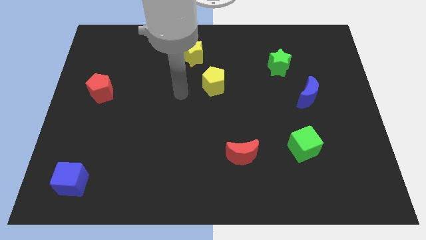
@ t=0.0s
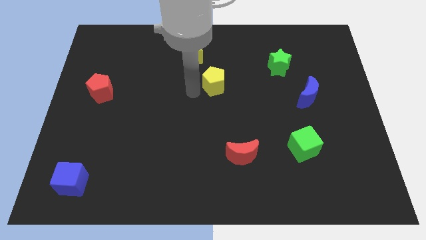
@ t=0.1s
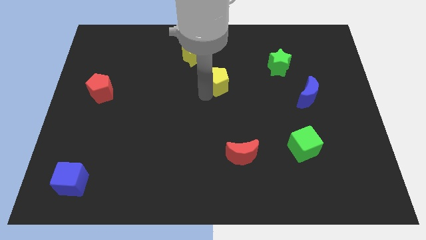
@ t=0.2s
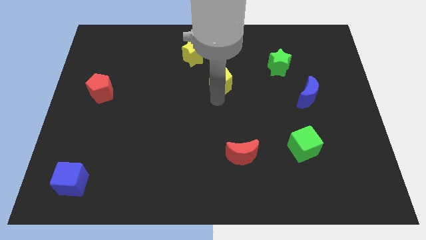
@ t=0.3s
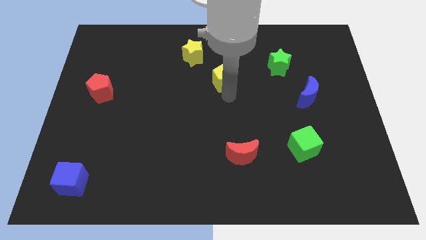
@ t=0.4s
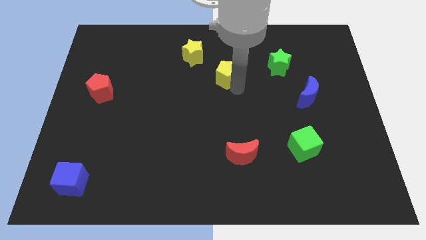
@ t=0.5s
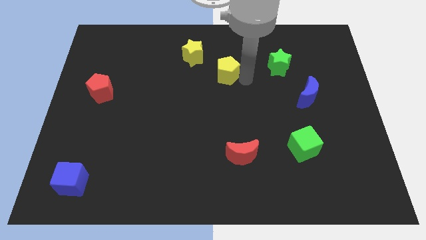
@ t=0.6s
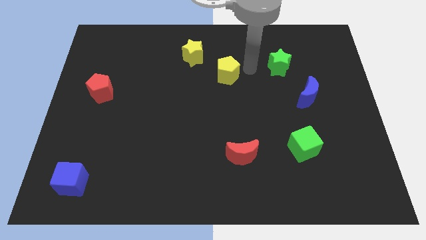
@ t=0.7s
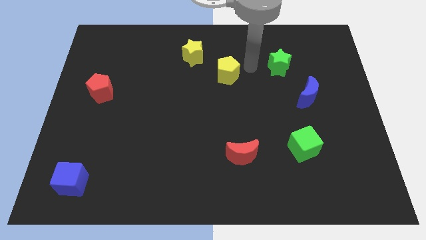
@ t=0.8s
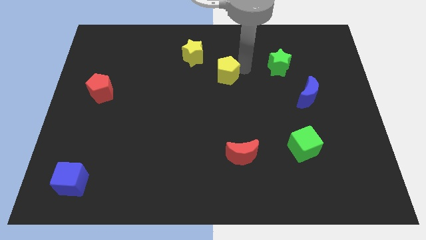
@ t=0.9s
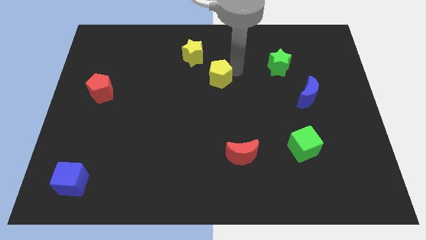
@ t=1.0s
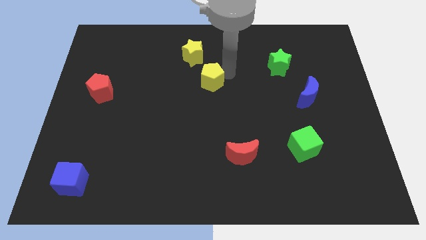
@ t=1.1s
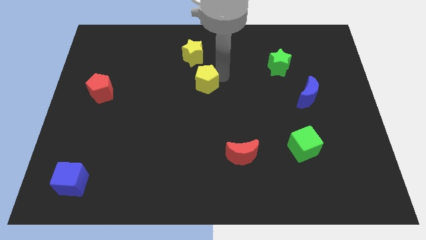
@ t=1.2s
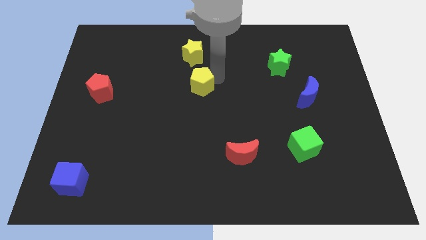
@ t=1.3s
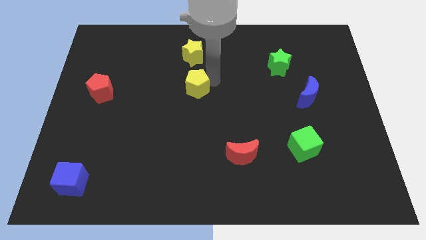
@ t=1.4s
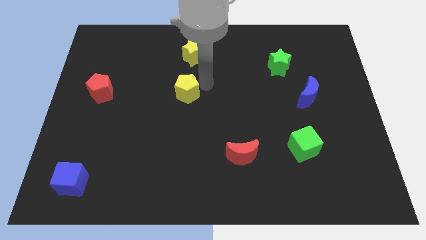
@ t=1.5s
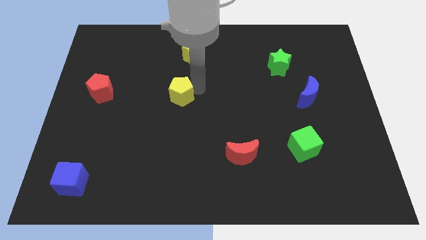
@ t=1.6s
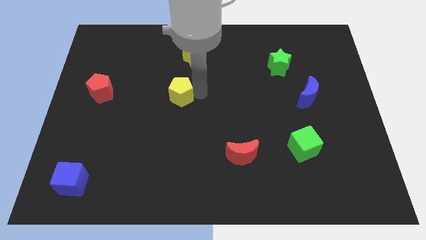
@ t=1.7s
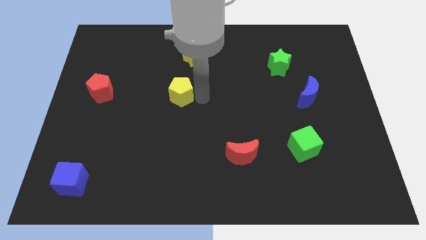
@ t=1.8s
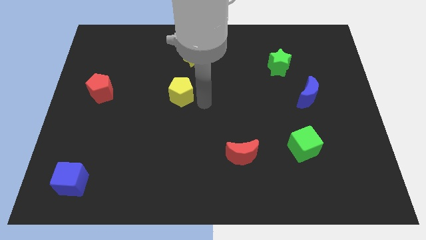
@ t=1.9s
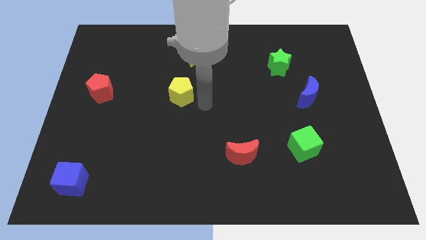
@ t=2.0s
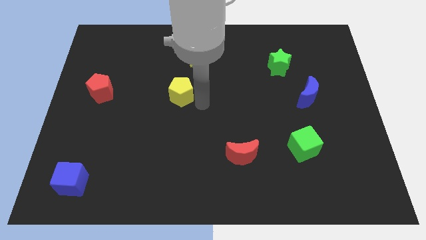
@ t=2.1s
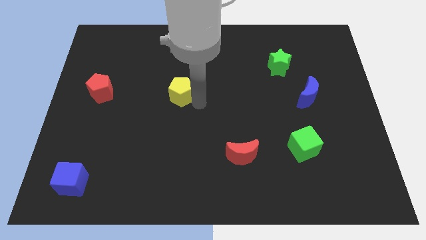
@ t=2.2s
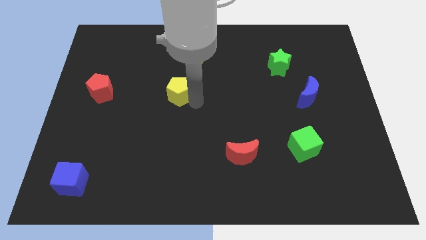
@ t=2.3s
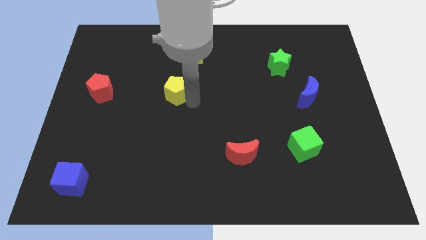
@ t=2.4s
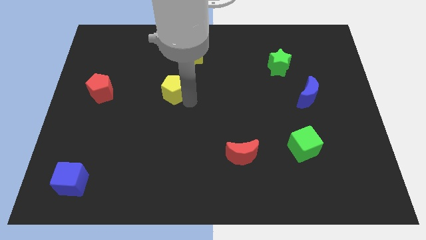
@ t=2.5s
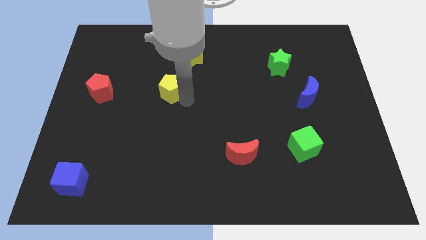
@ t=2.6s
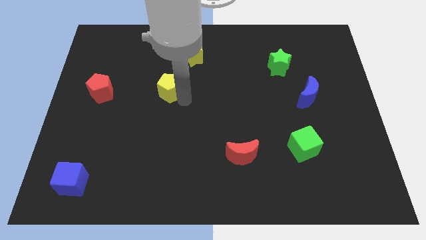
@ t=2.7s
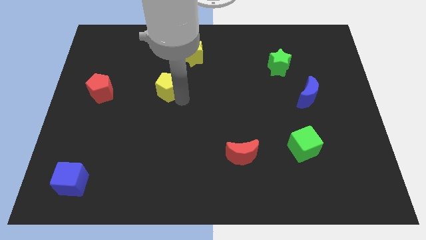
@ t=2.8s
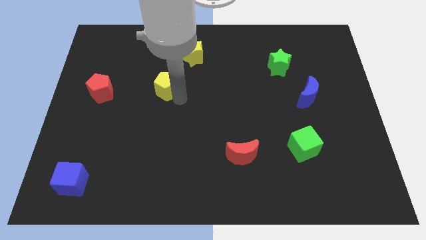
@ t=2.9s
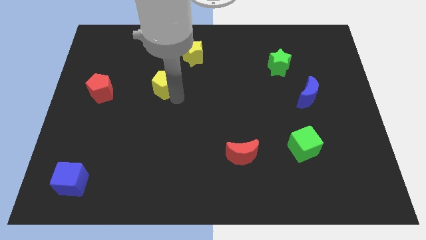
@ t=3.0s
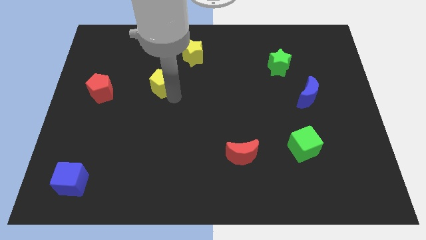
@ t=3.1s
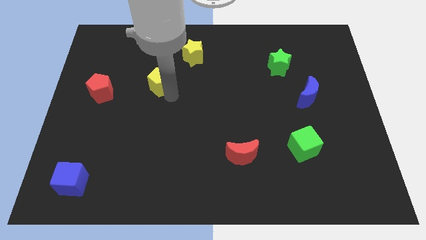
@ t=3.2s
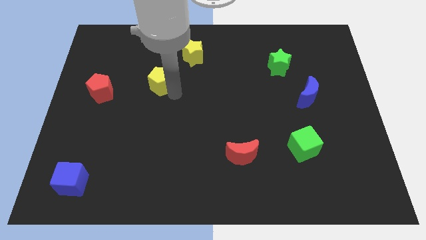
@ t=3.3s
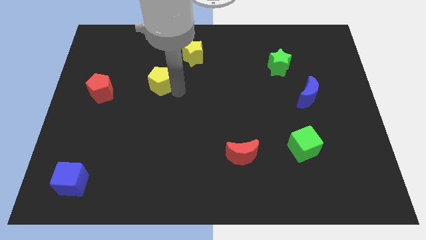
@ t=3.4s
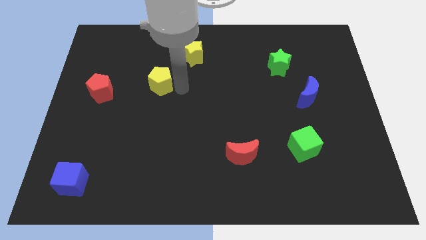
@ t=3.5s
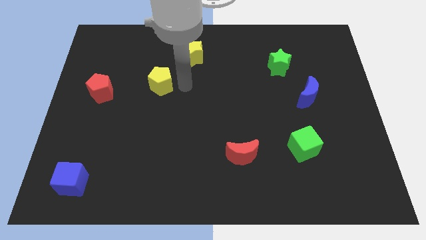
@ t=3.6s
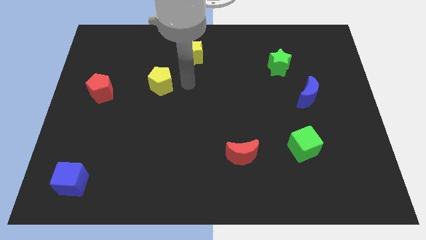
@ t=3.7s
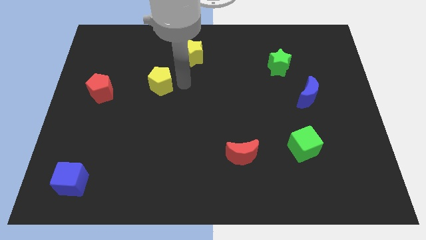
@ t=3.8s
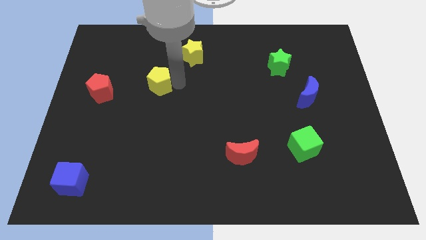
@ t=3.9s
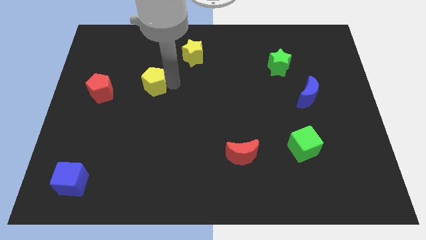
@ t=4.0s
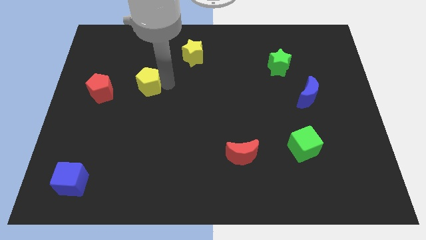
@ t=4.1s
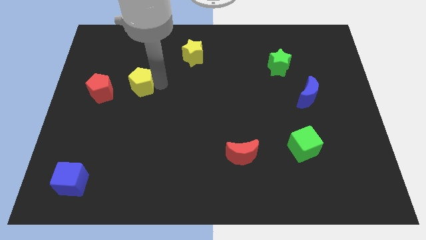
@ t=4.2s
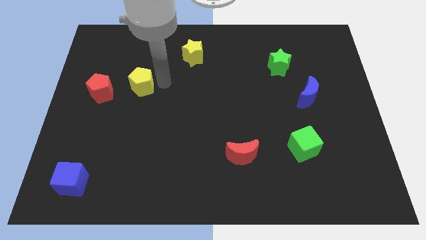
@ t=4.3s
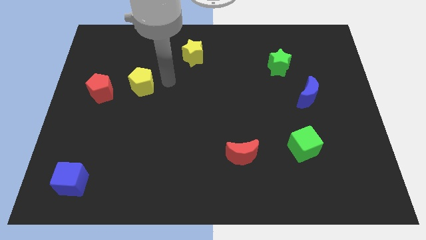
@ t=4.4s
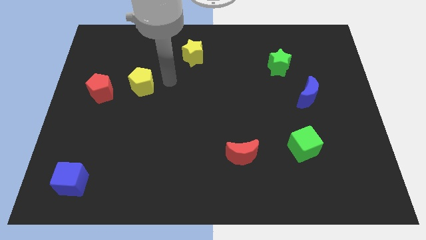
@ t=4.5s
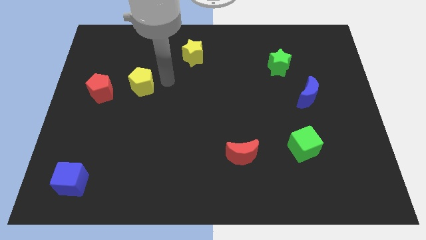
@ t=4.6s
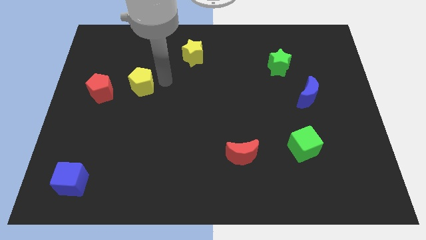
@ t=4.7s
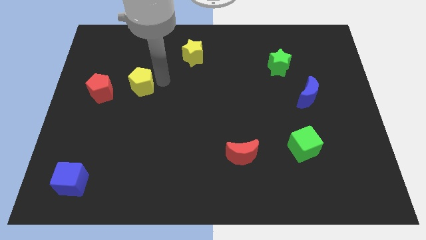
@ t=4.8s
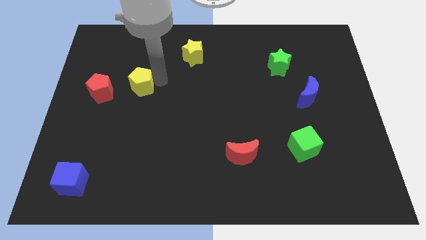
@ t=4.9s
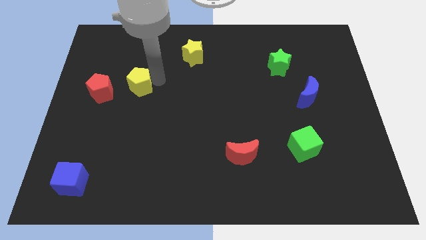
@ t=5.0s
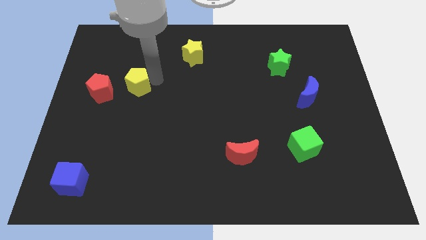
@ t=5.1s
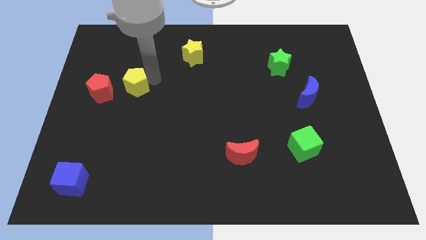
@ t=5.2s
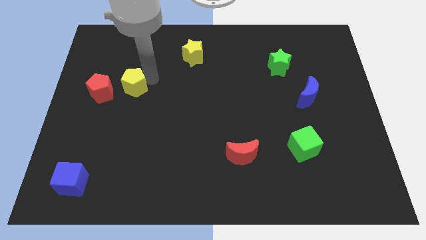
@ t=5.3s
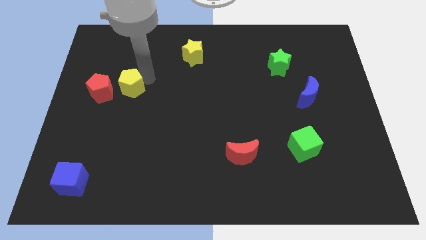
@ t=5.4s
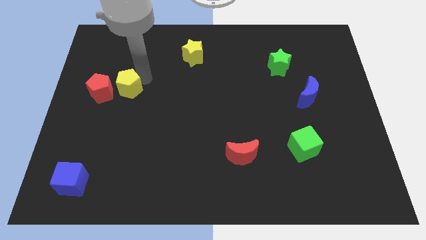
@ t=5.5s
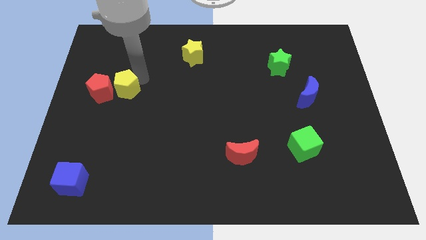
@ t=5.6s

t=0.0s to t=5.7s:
slide the yellow pentagon next to the red pentagon

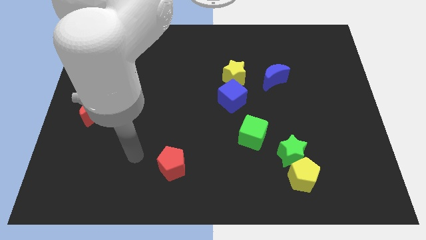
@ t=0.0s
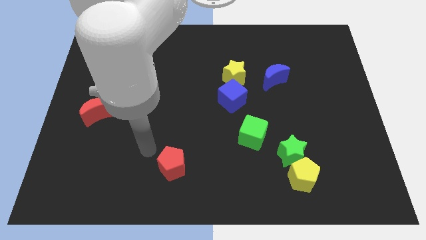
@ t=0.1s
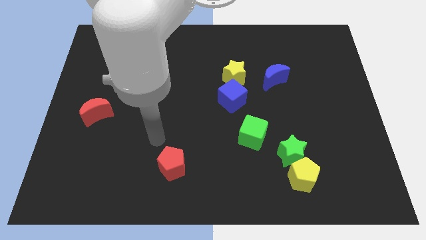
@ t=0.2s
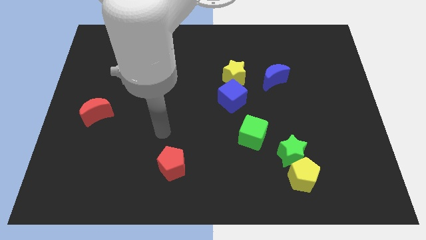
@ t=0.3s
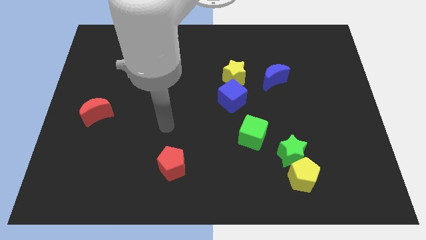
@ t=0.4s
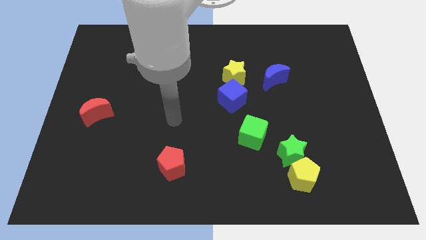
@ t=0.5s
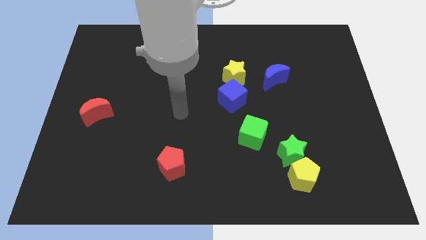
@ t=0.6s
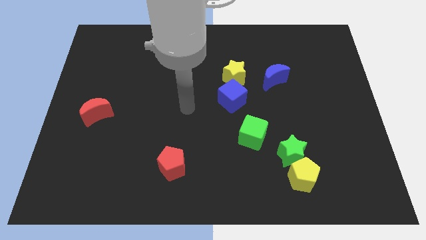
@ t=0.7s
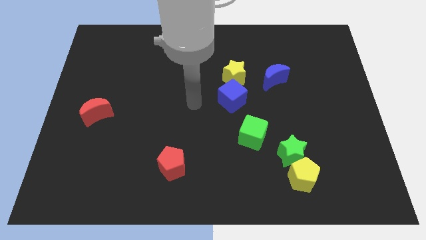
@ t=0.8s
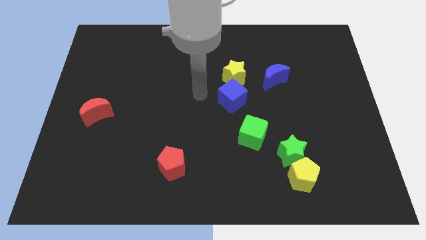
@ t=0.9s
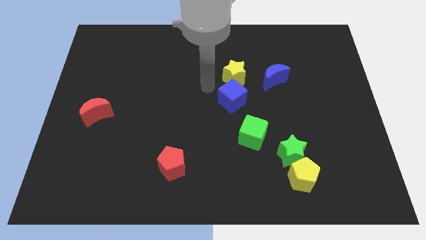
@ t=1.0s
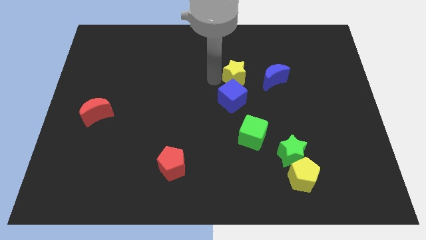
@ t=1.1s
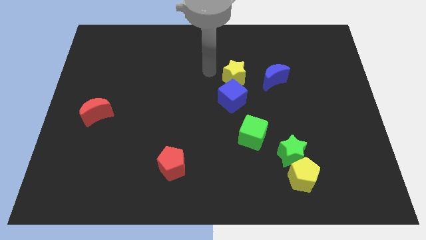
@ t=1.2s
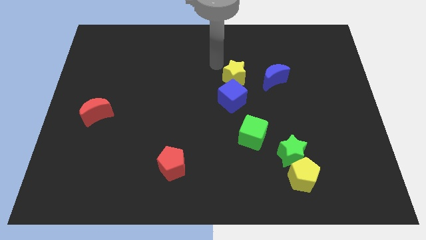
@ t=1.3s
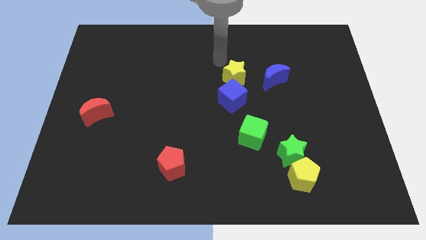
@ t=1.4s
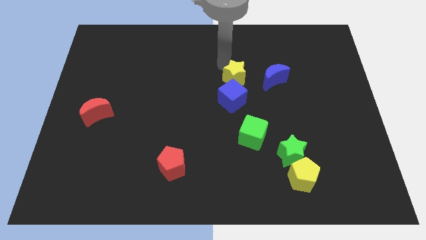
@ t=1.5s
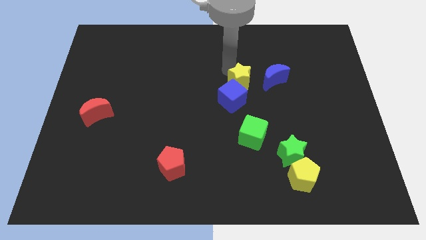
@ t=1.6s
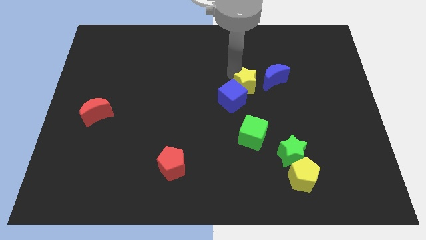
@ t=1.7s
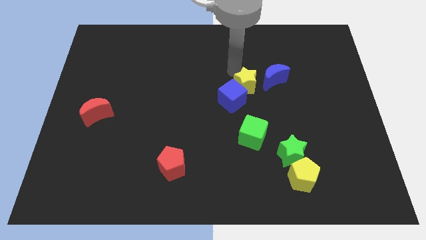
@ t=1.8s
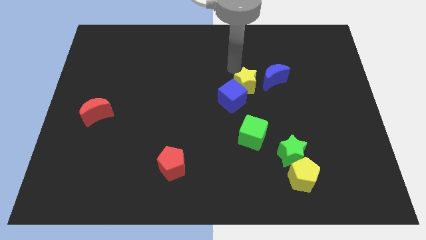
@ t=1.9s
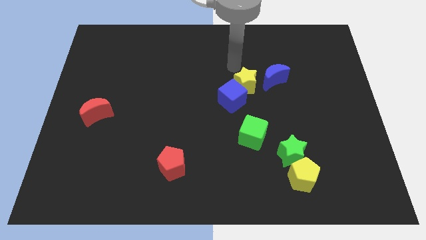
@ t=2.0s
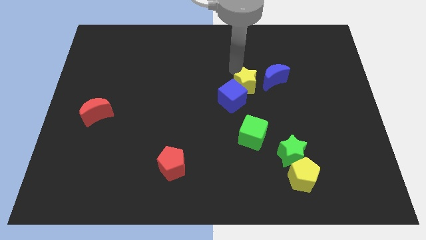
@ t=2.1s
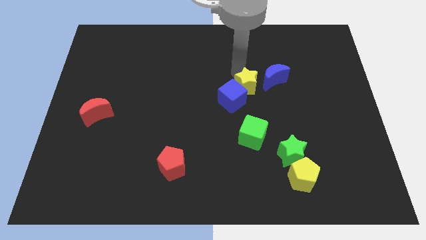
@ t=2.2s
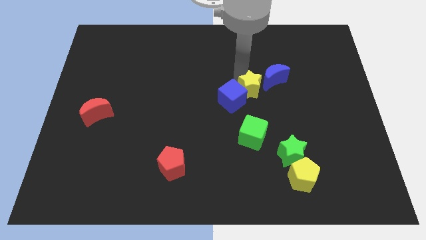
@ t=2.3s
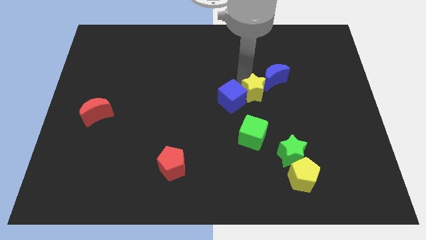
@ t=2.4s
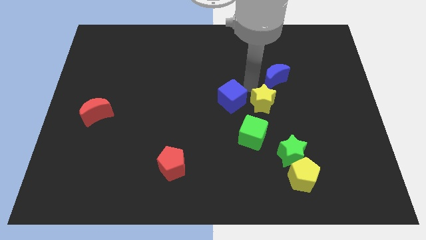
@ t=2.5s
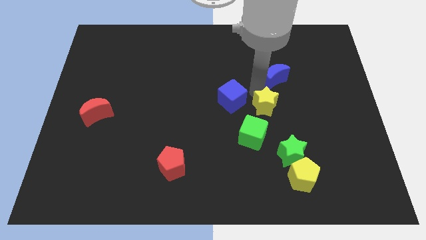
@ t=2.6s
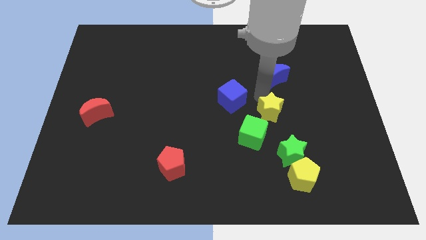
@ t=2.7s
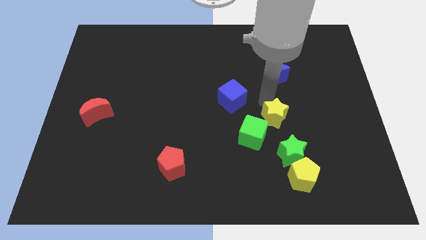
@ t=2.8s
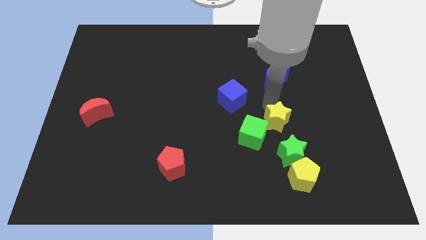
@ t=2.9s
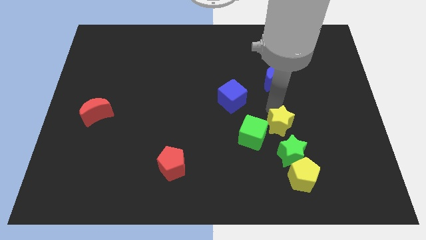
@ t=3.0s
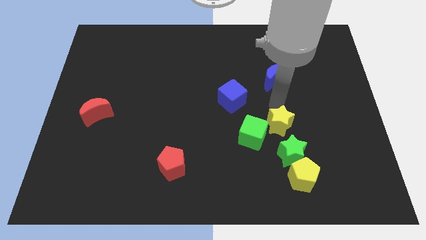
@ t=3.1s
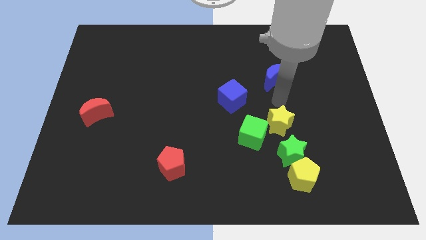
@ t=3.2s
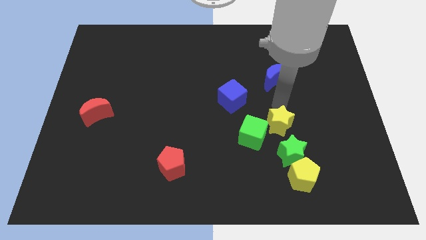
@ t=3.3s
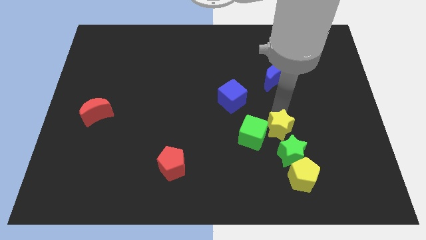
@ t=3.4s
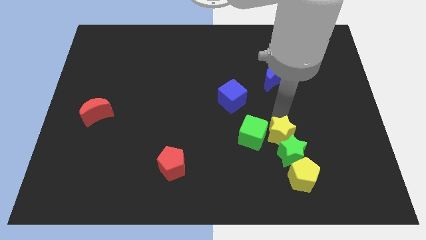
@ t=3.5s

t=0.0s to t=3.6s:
push the yellow star to the green star
